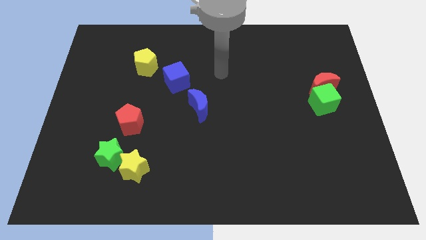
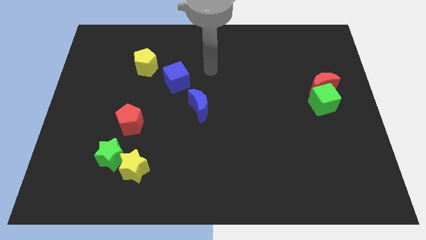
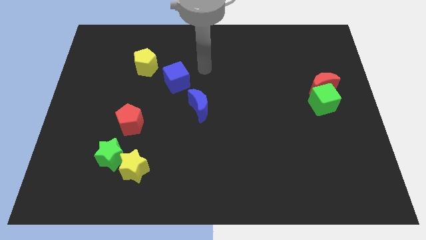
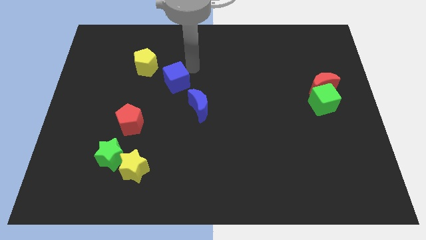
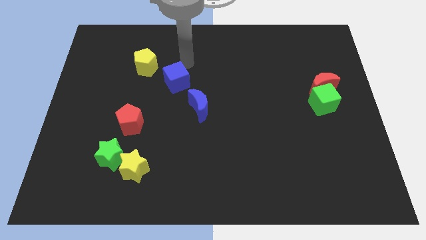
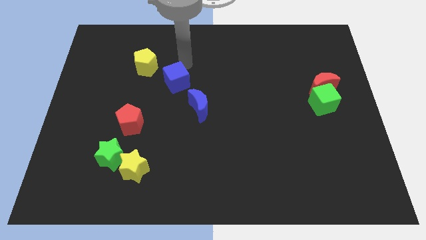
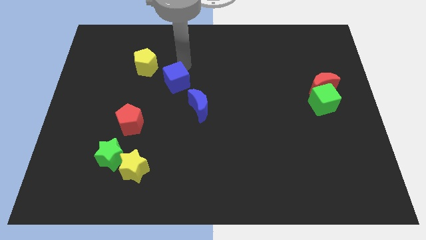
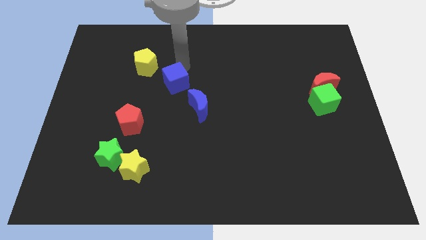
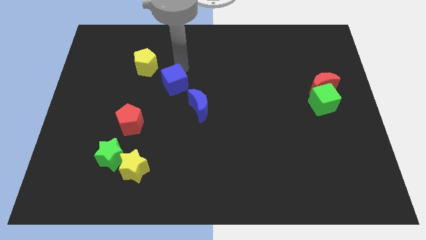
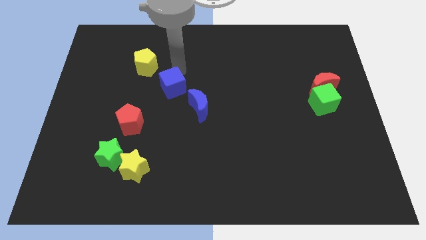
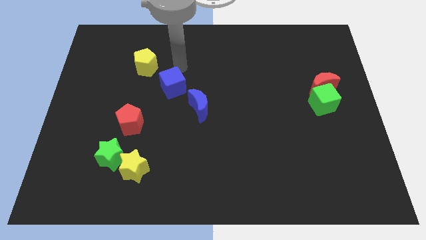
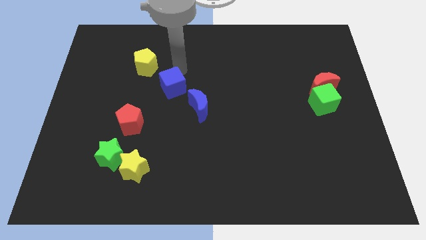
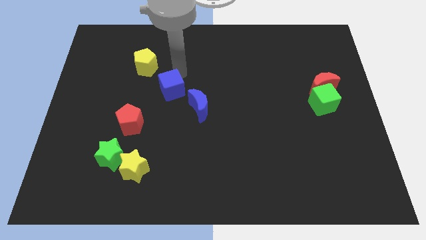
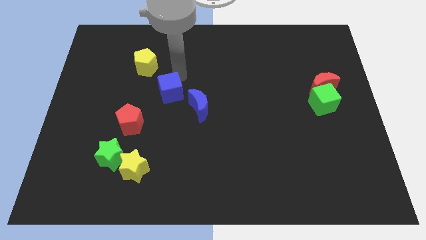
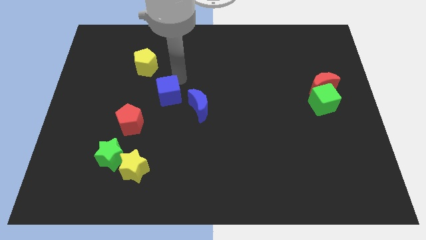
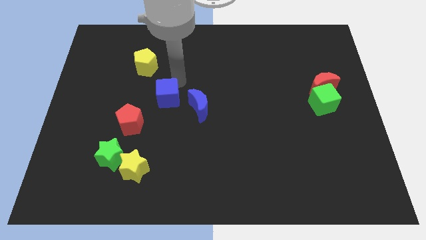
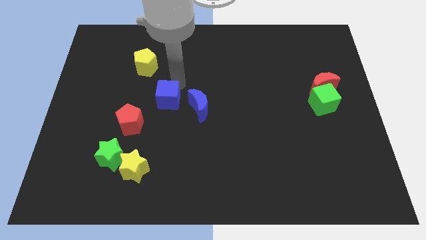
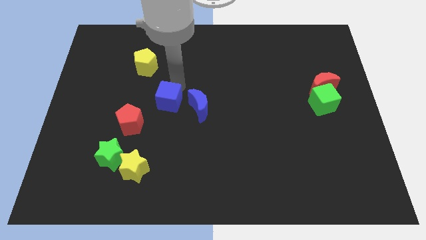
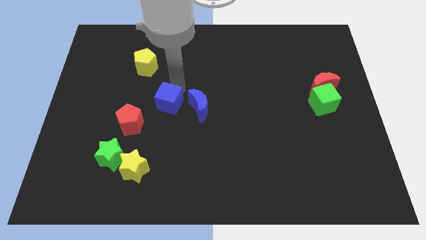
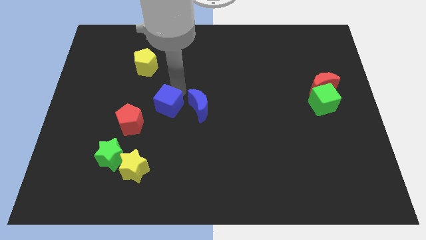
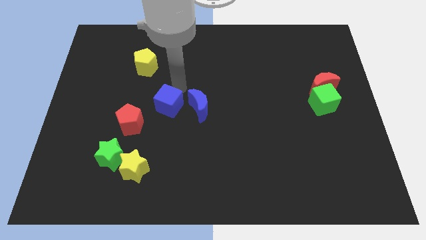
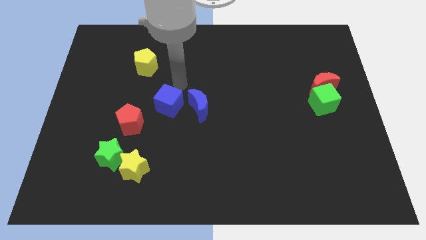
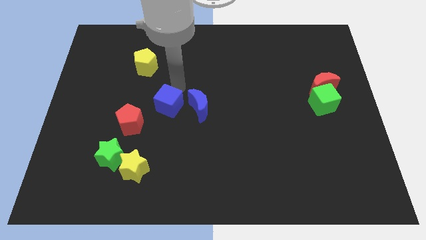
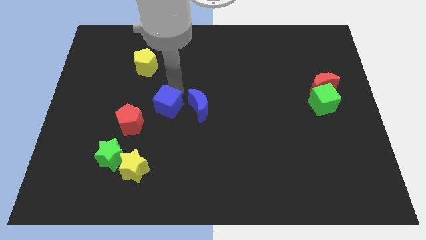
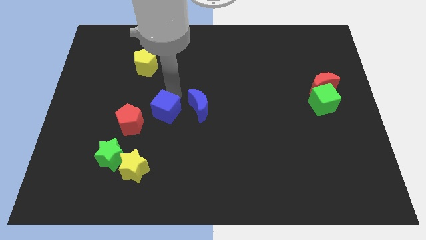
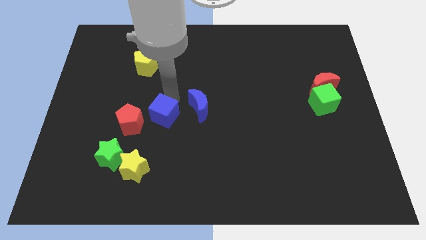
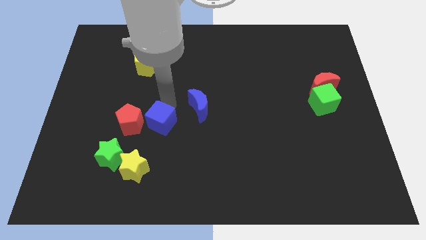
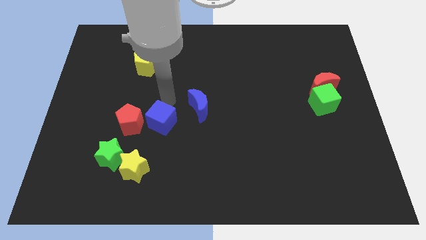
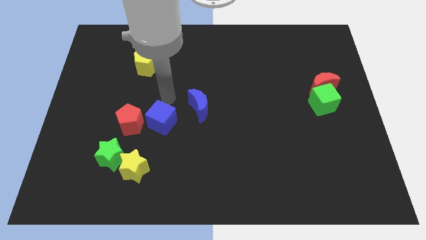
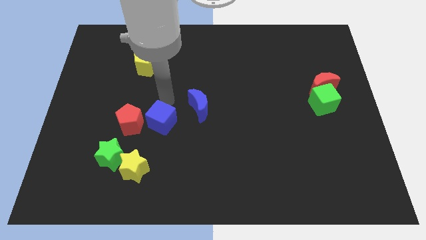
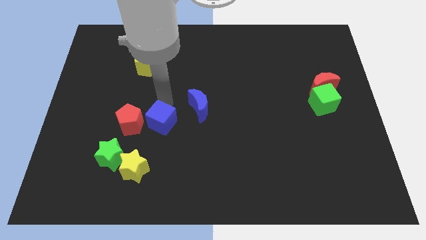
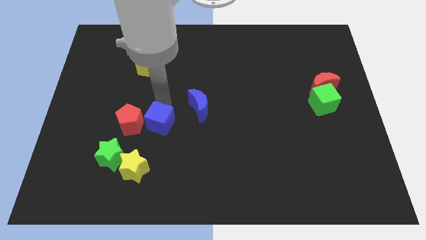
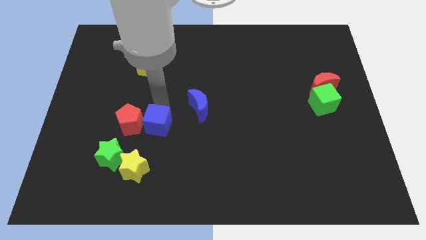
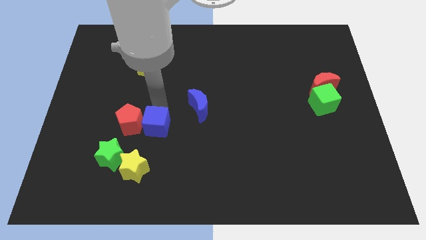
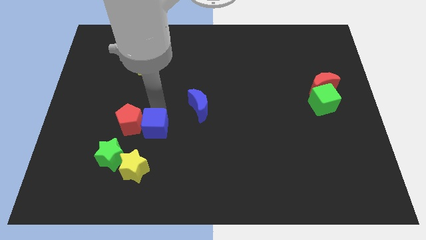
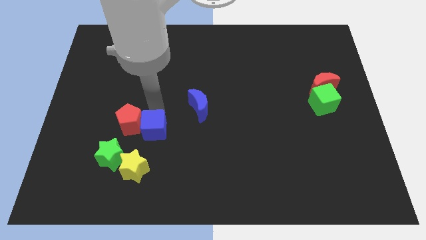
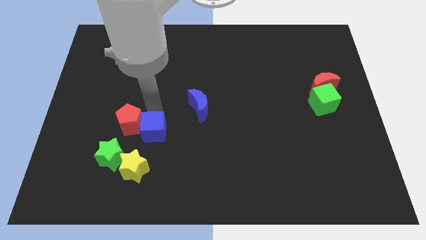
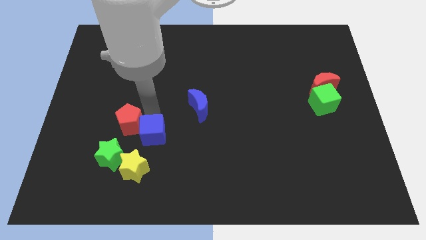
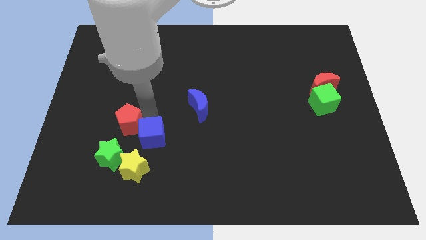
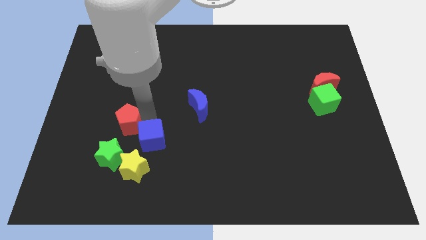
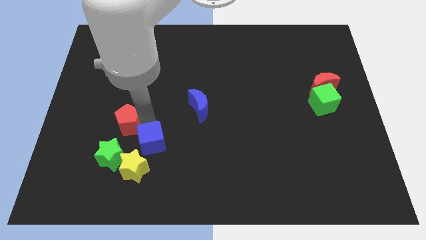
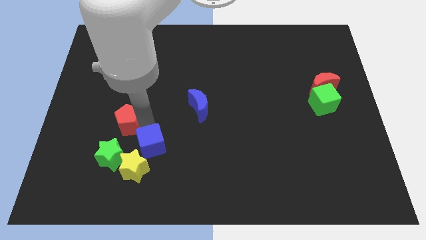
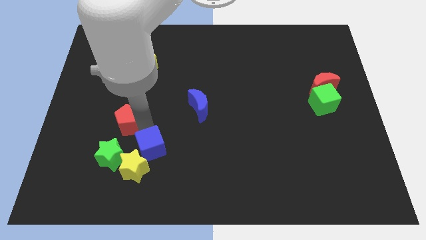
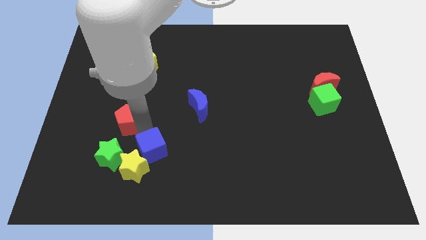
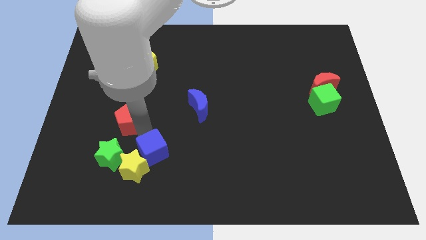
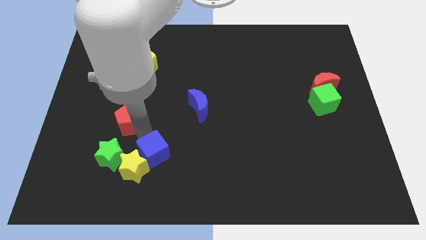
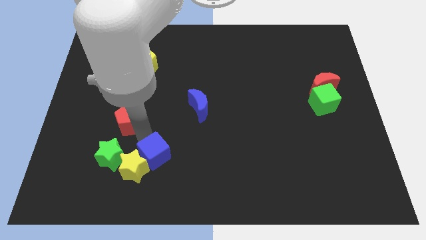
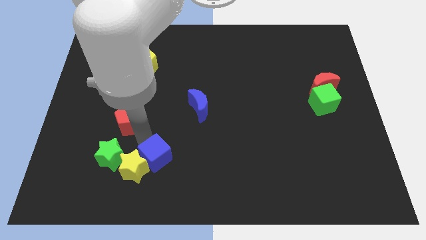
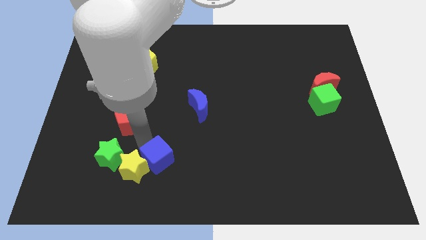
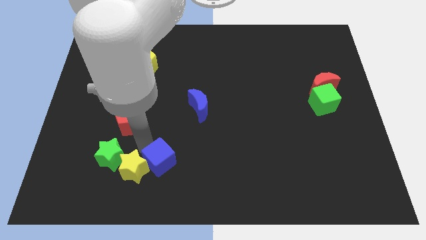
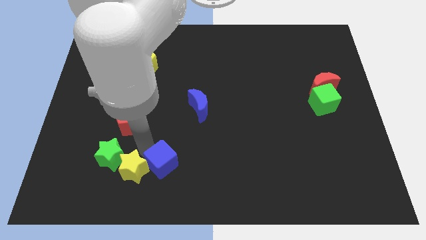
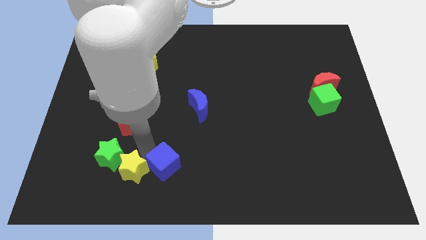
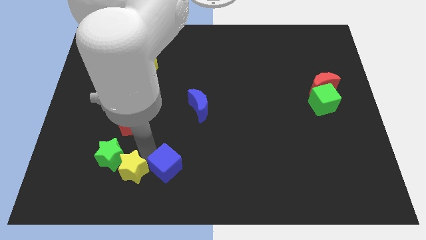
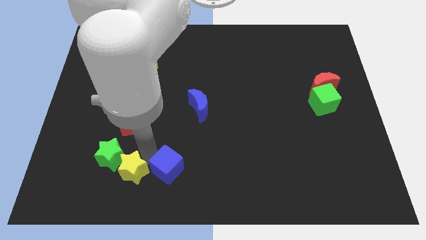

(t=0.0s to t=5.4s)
slide the blue cube to the bottom side
